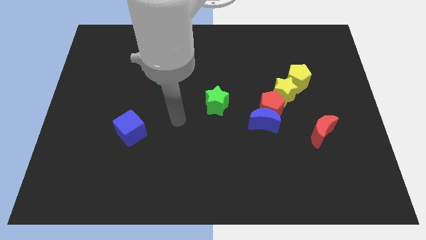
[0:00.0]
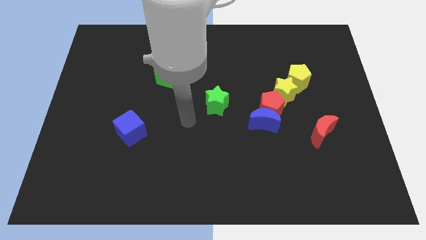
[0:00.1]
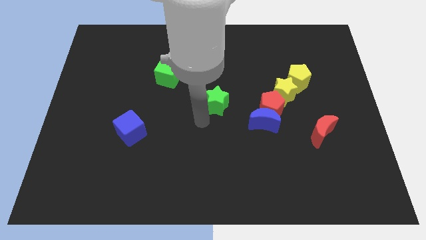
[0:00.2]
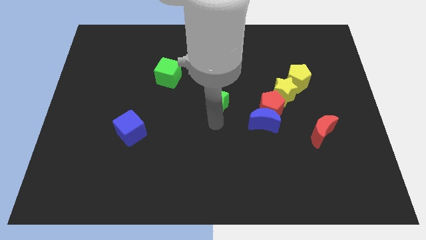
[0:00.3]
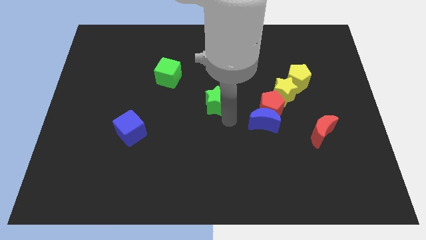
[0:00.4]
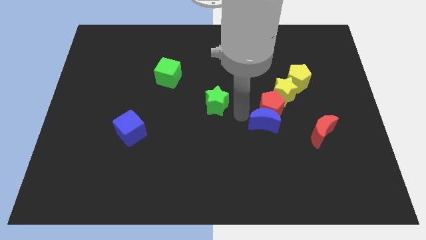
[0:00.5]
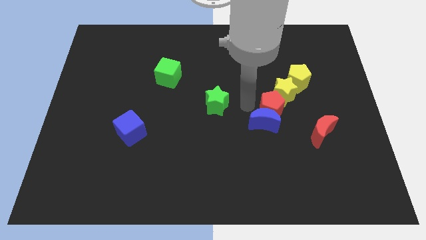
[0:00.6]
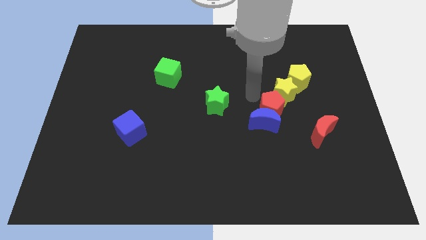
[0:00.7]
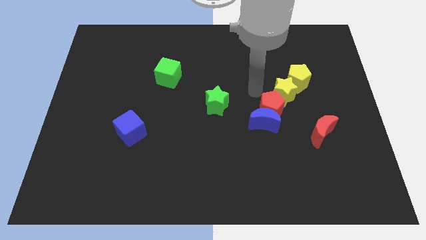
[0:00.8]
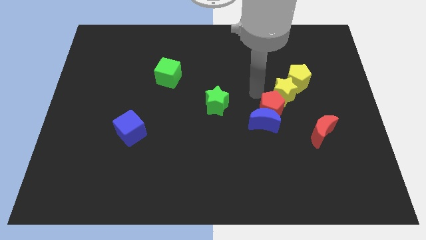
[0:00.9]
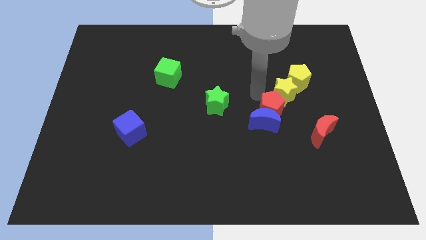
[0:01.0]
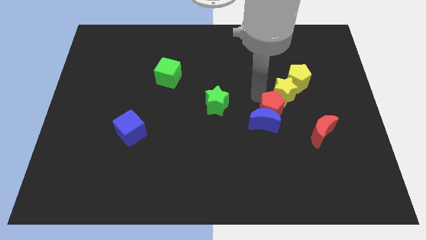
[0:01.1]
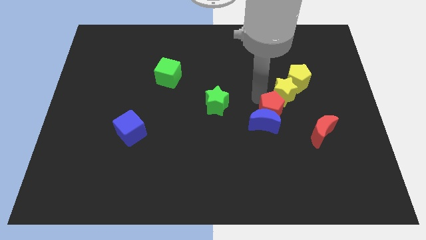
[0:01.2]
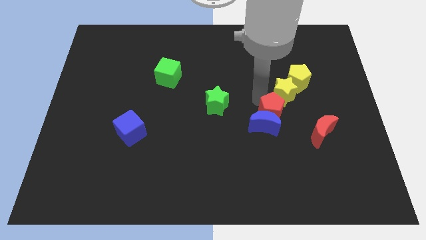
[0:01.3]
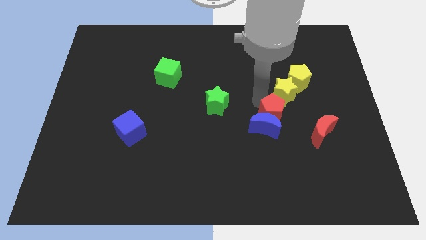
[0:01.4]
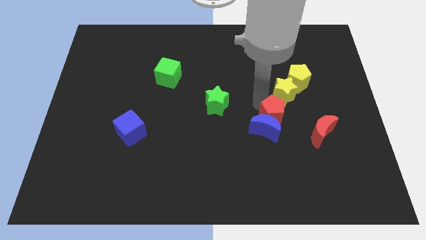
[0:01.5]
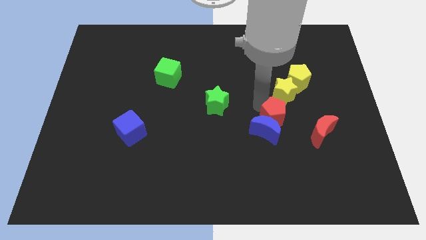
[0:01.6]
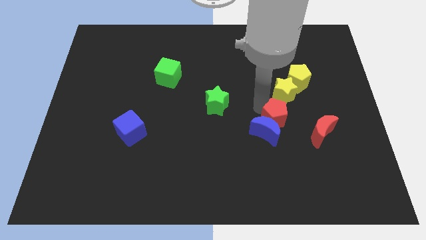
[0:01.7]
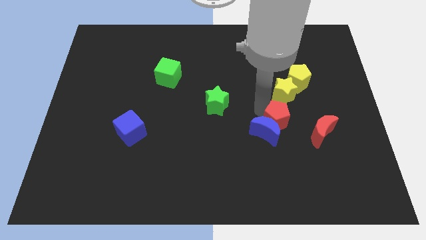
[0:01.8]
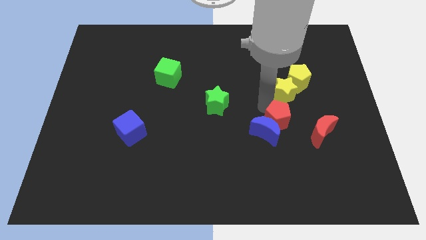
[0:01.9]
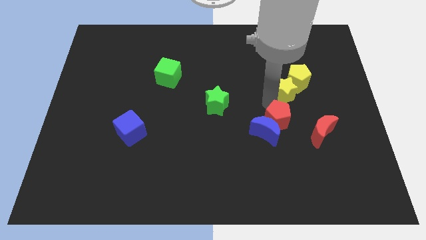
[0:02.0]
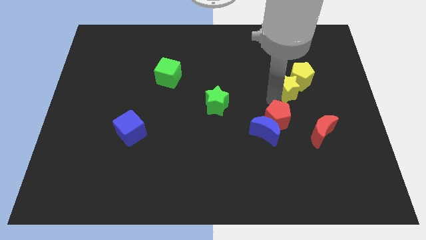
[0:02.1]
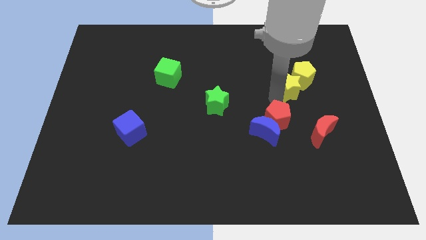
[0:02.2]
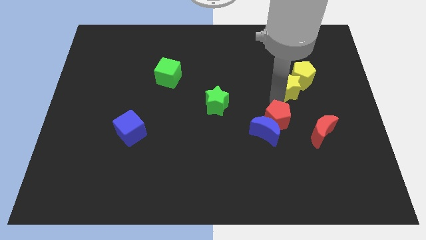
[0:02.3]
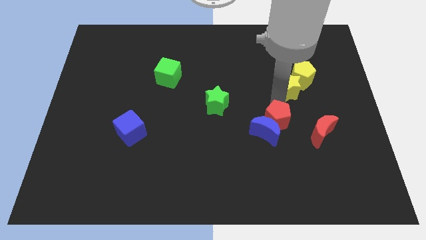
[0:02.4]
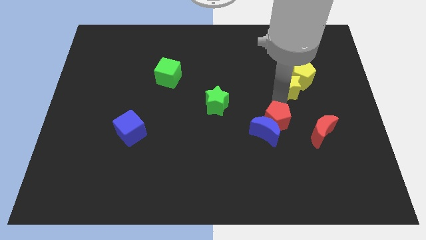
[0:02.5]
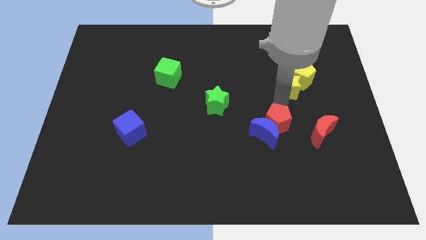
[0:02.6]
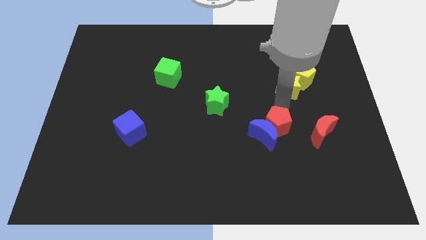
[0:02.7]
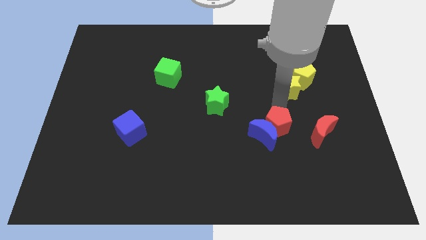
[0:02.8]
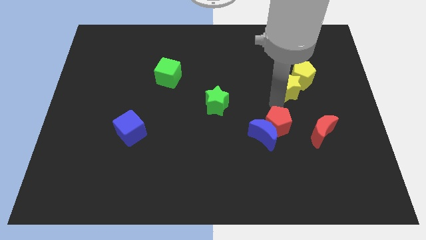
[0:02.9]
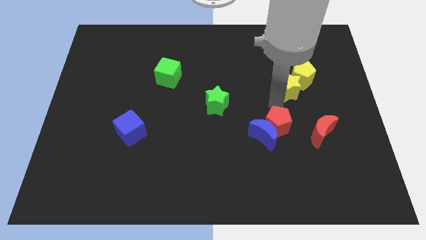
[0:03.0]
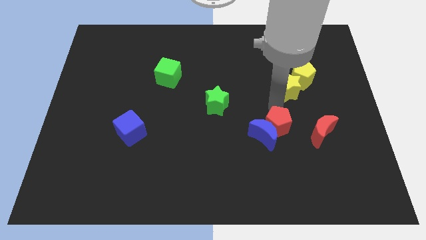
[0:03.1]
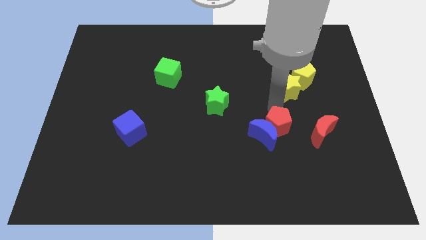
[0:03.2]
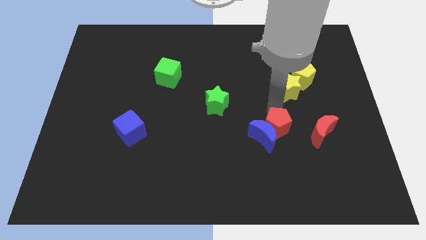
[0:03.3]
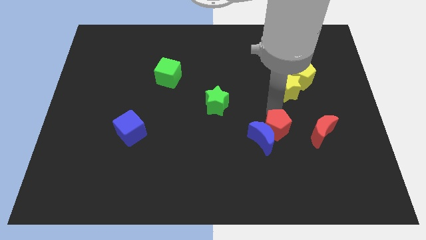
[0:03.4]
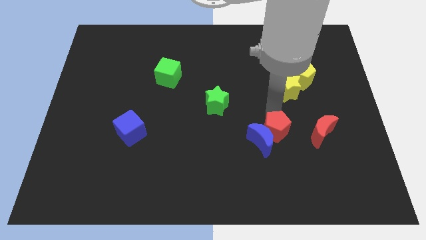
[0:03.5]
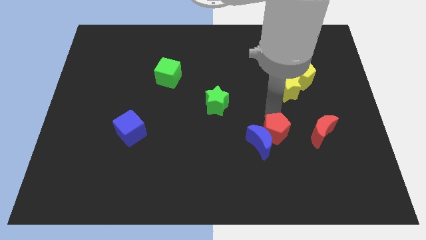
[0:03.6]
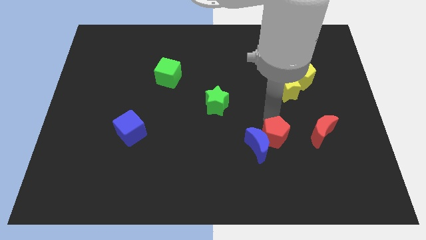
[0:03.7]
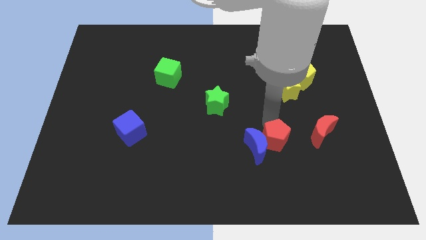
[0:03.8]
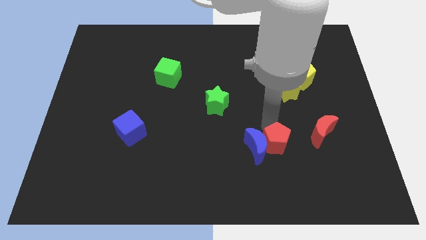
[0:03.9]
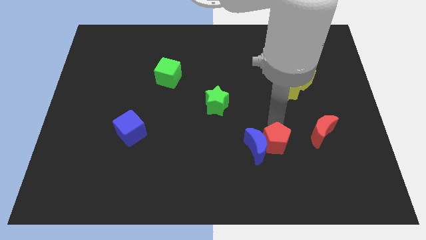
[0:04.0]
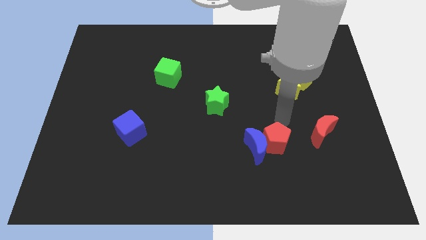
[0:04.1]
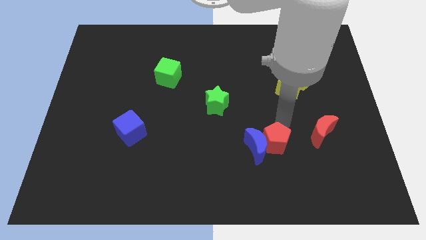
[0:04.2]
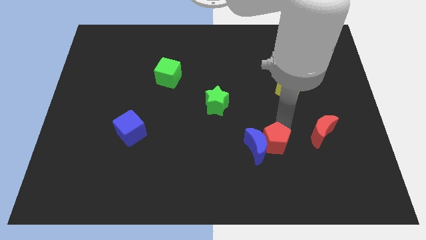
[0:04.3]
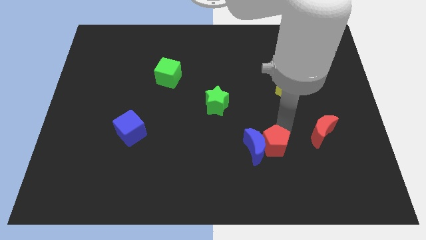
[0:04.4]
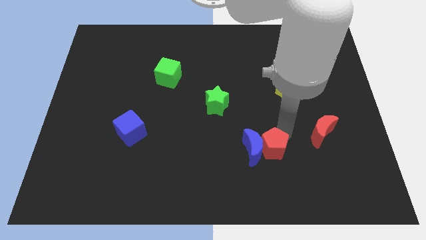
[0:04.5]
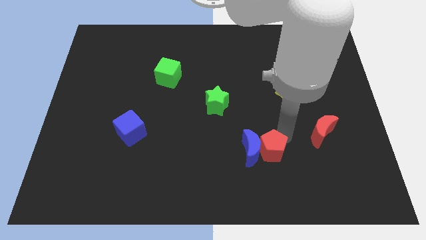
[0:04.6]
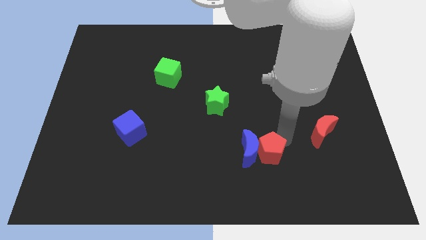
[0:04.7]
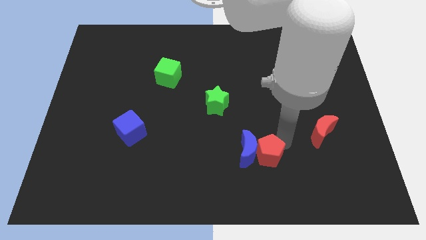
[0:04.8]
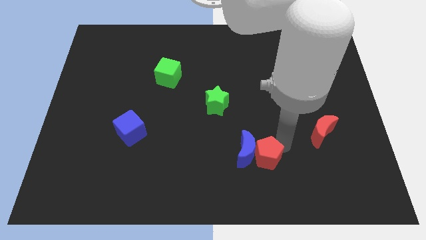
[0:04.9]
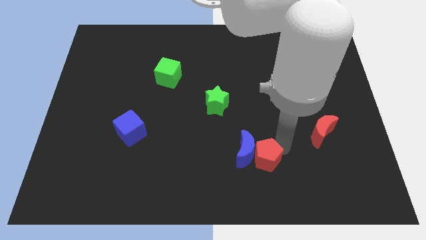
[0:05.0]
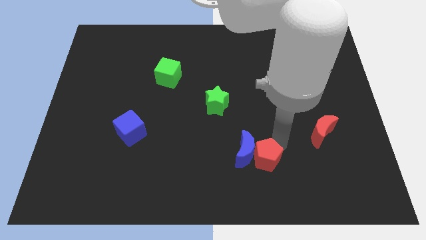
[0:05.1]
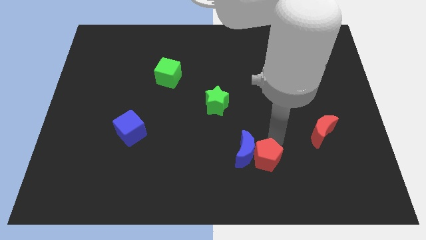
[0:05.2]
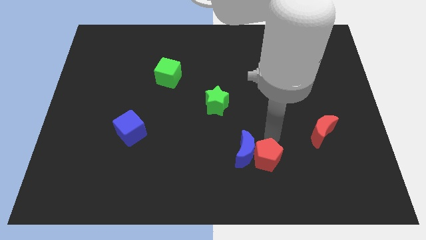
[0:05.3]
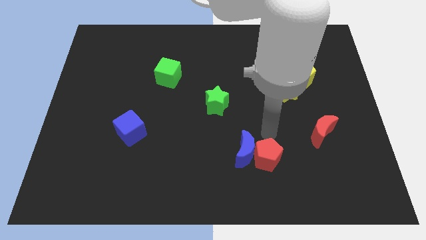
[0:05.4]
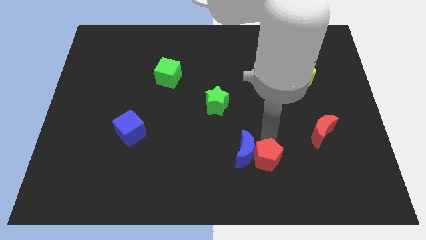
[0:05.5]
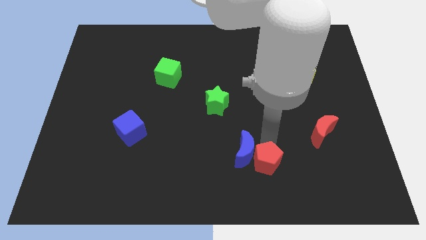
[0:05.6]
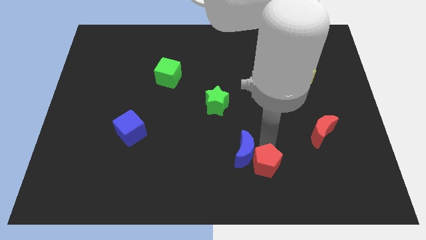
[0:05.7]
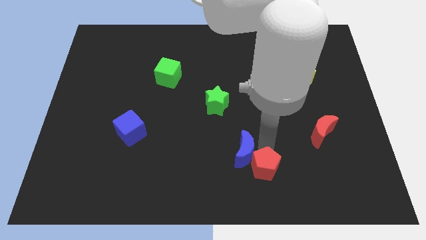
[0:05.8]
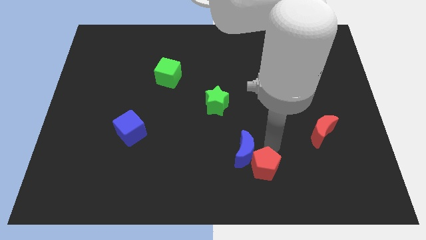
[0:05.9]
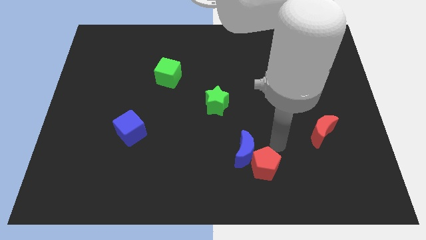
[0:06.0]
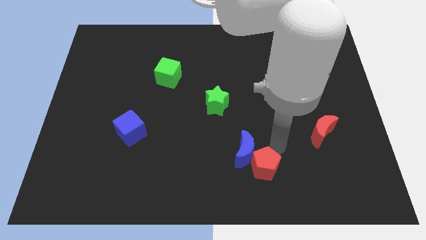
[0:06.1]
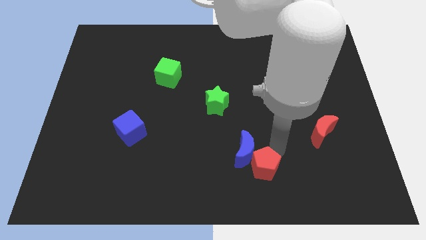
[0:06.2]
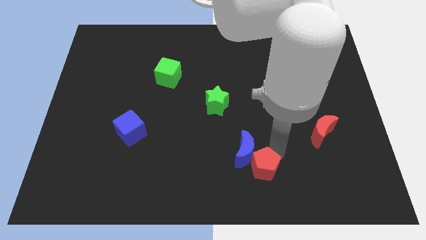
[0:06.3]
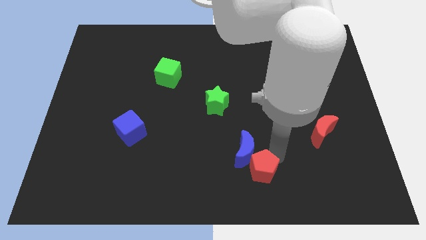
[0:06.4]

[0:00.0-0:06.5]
push the red pentagon to the bottom side
